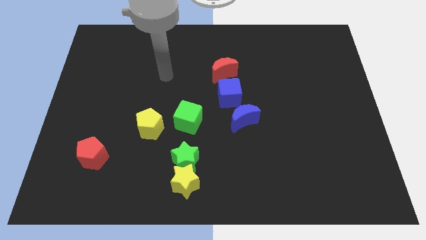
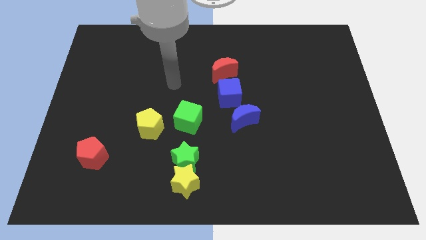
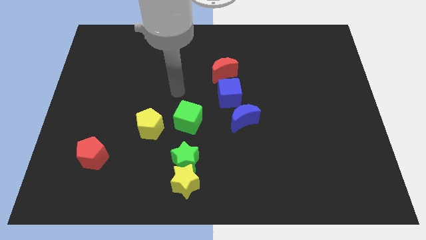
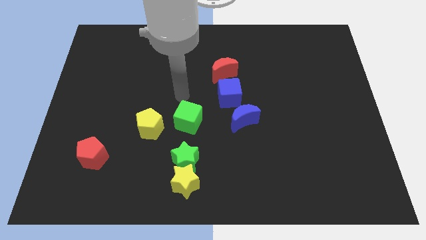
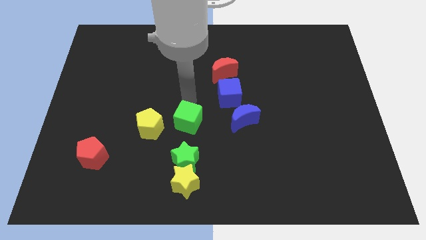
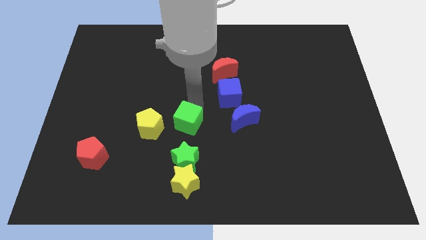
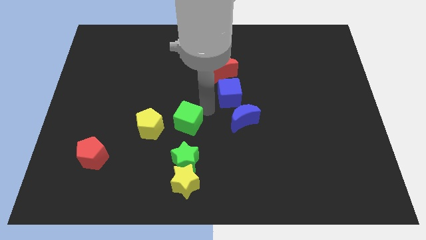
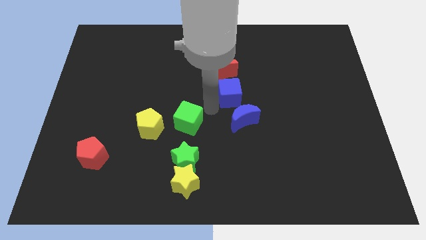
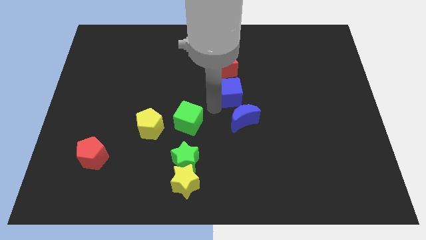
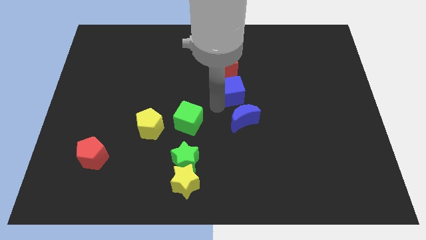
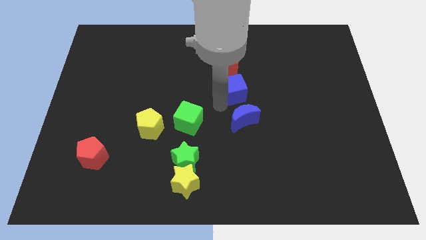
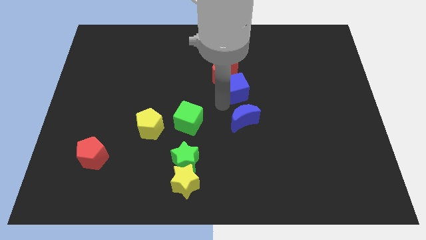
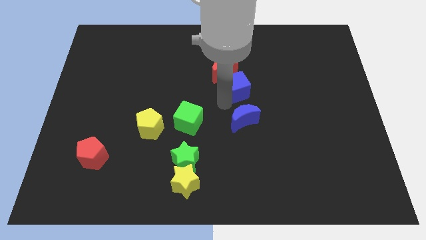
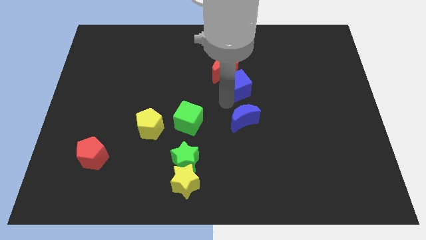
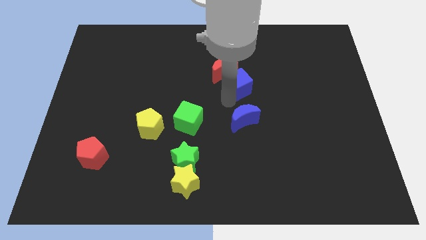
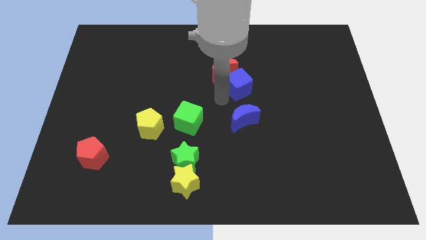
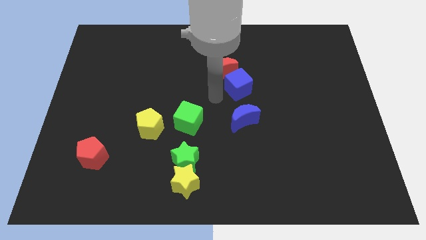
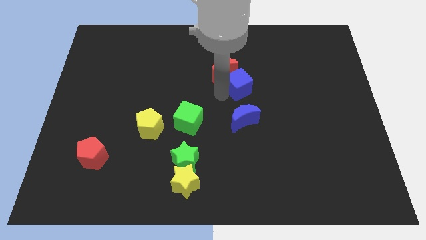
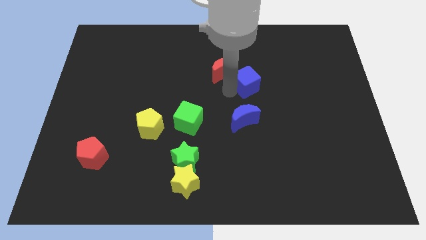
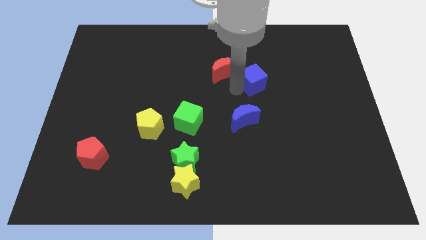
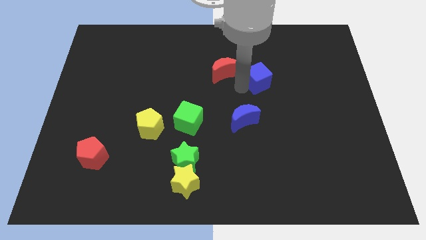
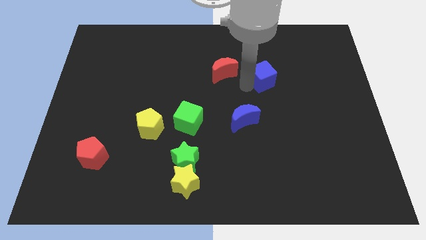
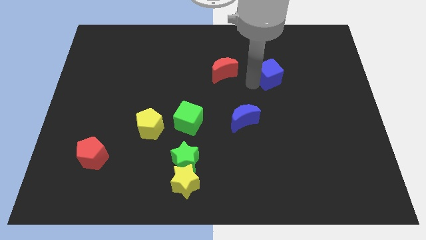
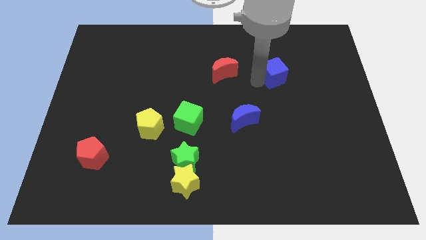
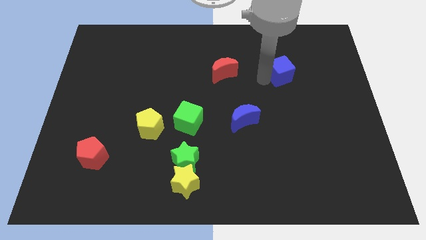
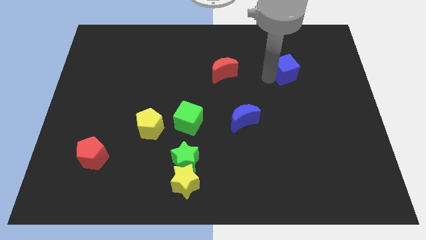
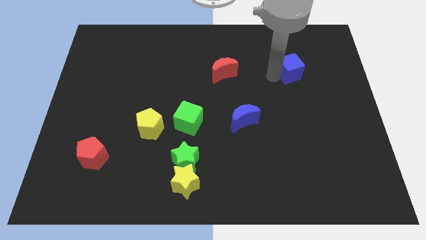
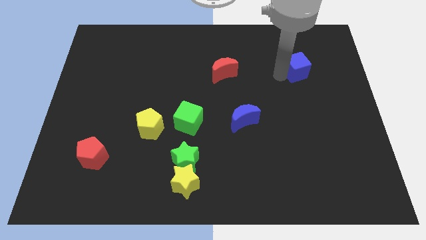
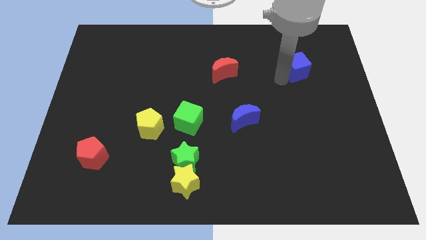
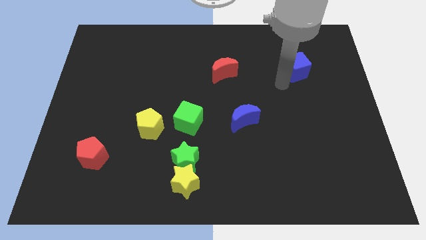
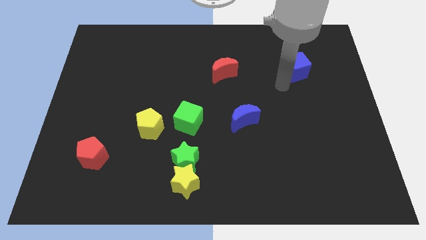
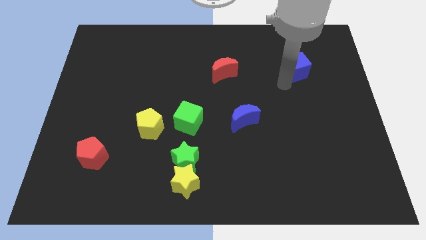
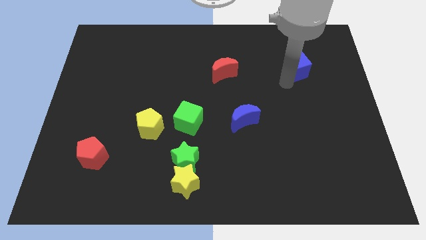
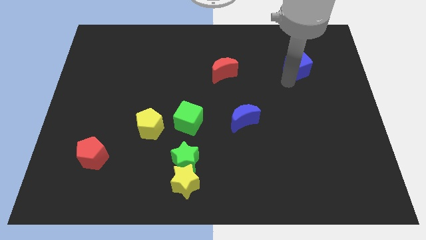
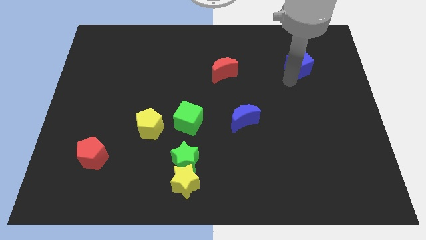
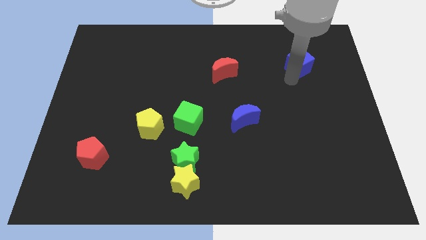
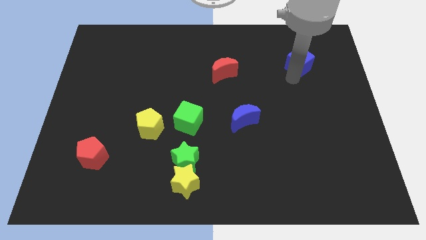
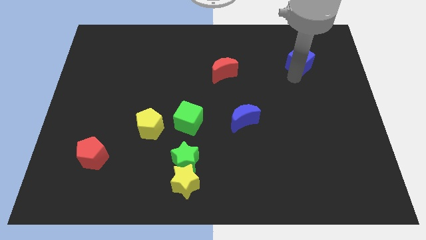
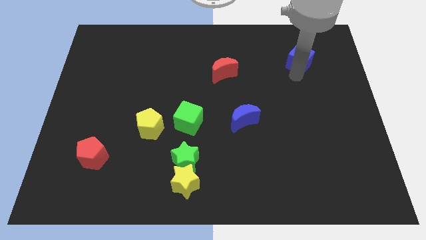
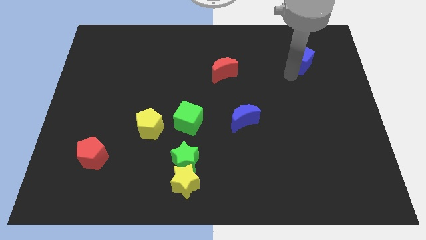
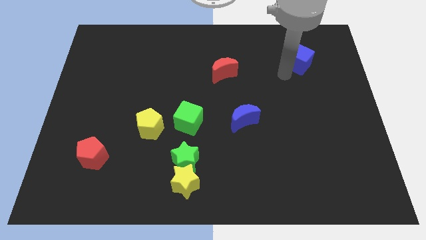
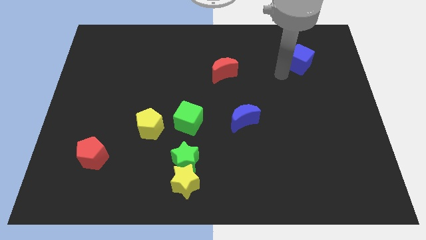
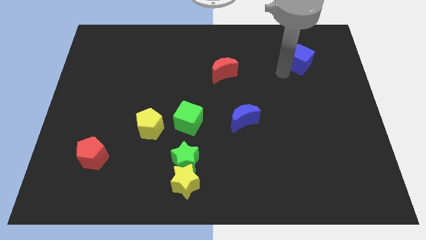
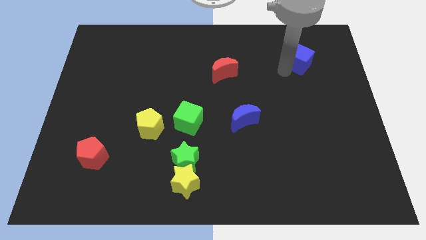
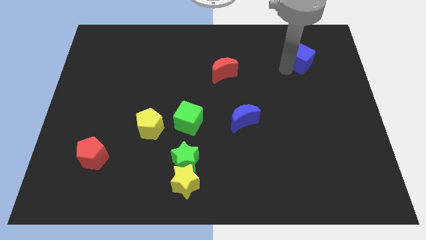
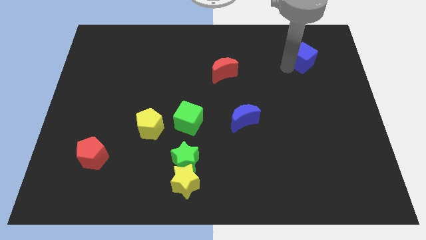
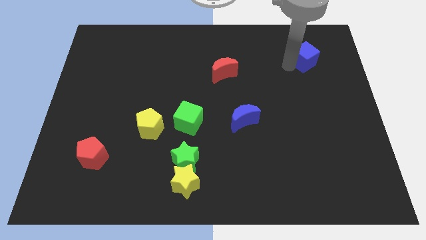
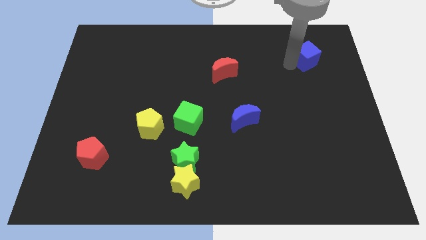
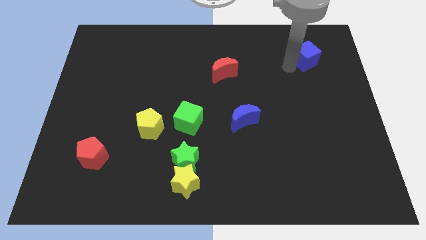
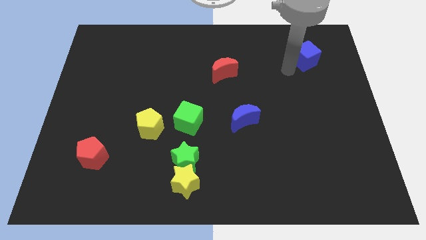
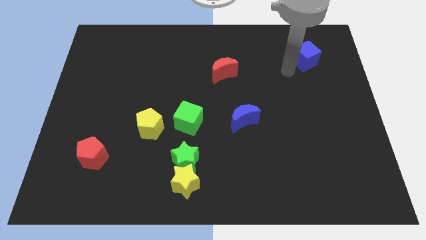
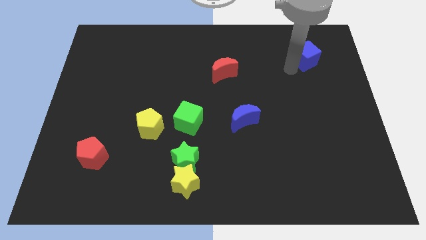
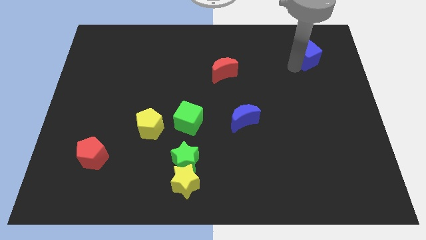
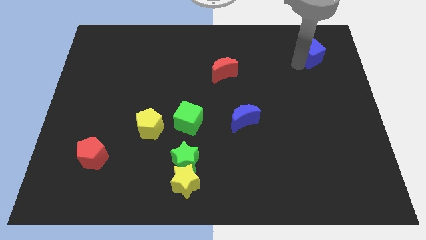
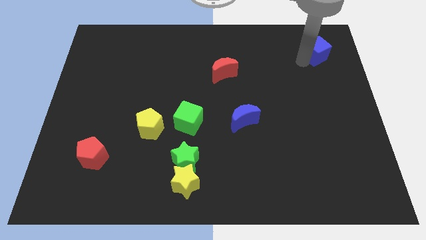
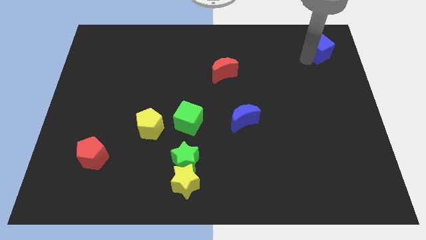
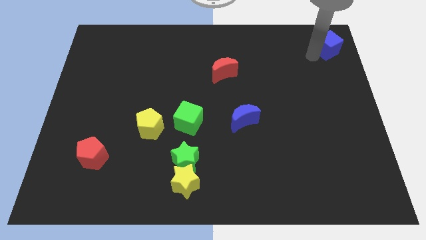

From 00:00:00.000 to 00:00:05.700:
push the blue cube to the upper right corner
